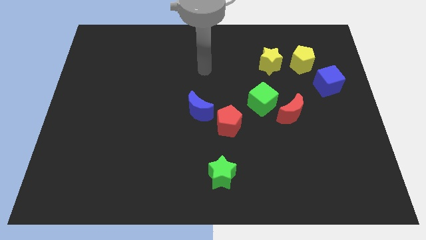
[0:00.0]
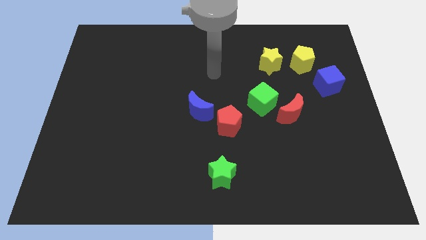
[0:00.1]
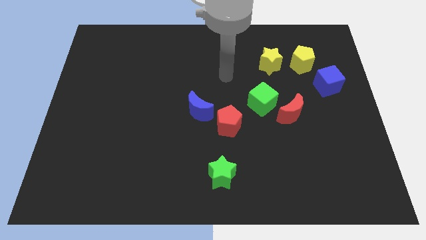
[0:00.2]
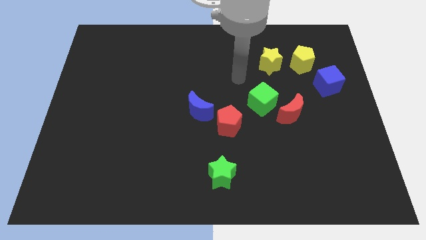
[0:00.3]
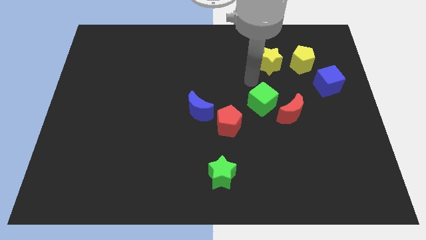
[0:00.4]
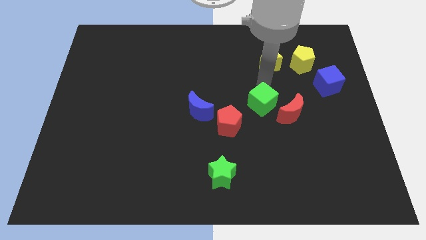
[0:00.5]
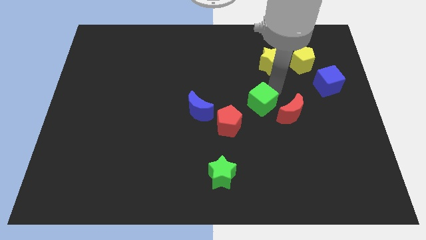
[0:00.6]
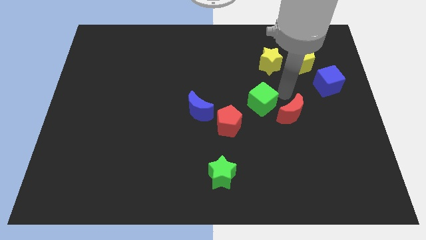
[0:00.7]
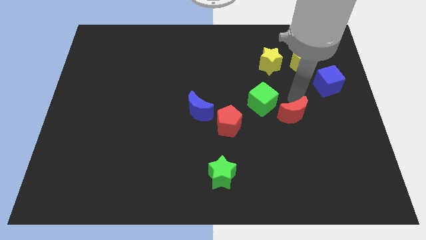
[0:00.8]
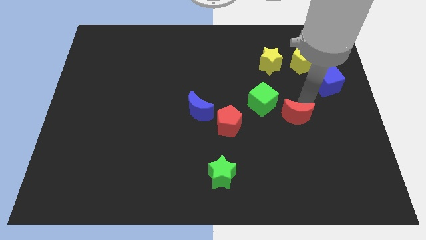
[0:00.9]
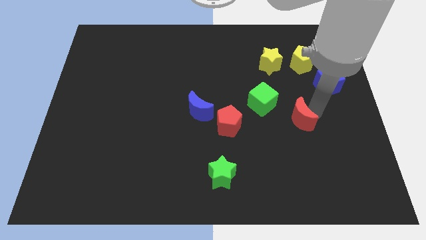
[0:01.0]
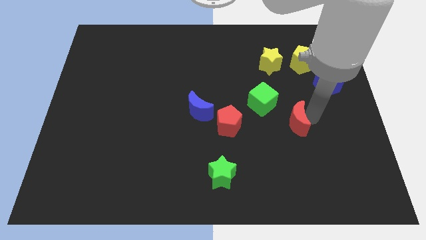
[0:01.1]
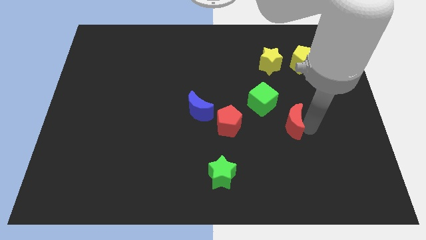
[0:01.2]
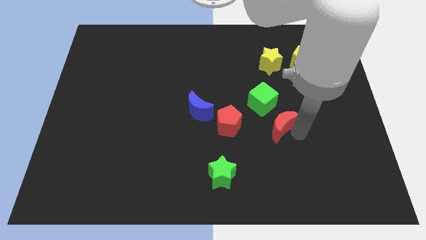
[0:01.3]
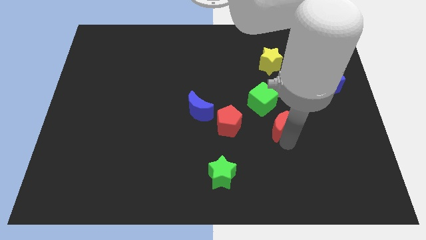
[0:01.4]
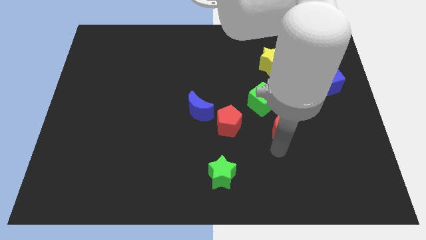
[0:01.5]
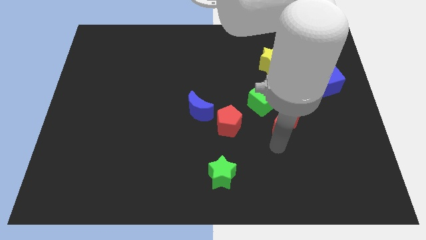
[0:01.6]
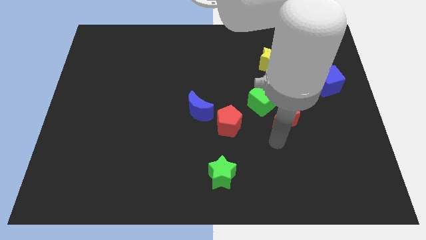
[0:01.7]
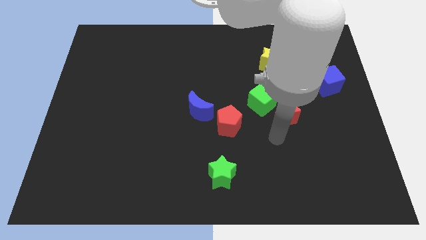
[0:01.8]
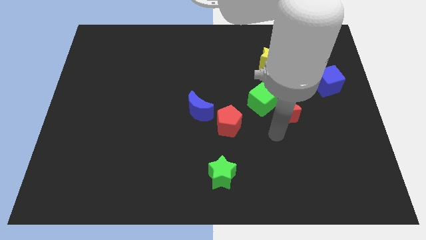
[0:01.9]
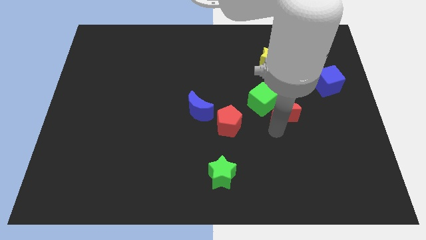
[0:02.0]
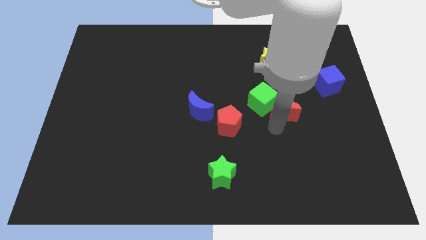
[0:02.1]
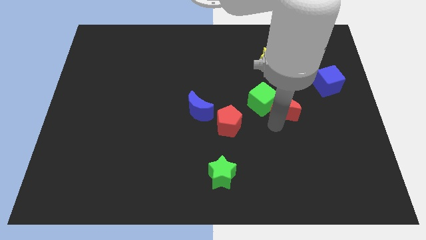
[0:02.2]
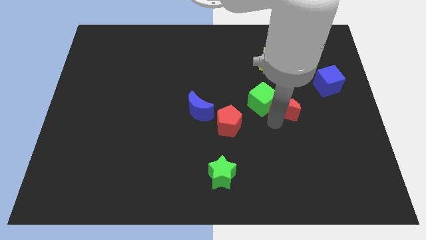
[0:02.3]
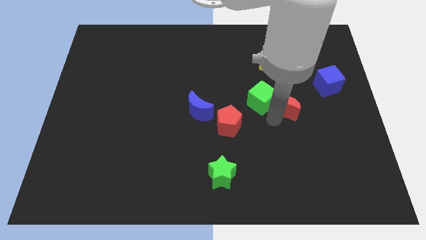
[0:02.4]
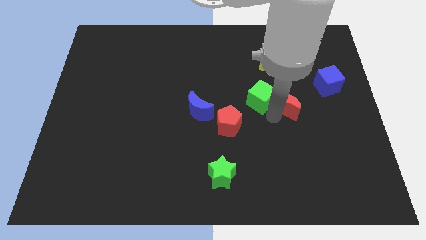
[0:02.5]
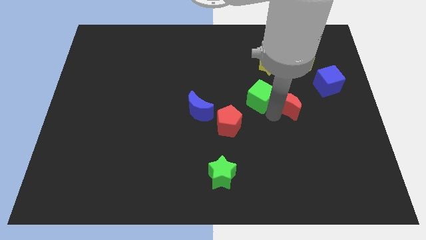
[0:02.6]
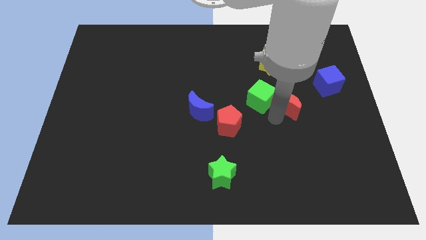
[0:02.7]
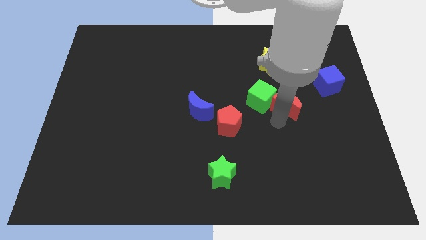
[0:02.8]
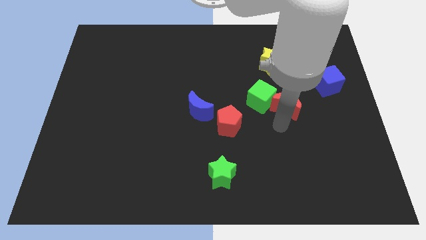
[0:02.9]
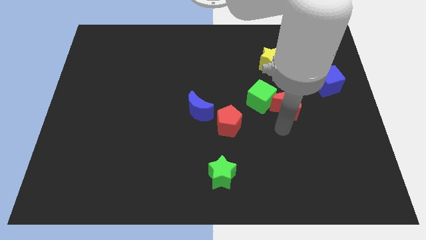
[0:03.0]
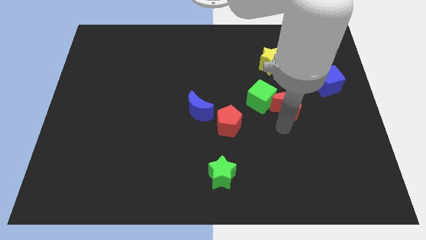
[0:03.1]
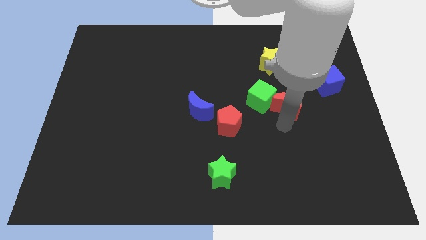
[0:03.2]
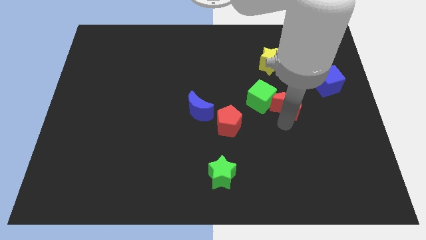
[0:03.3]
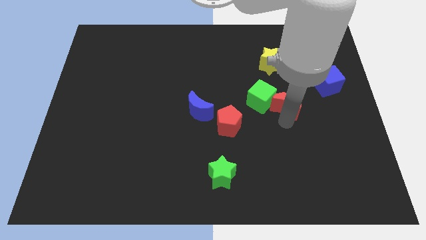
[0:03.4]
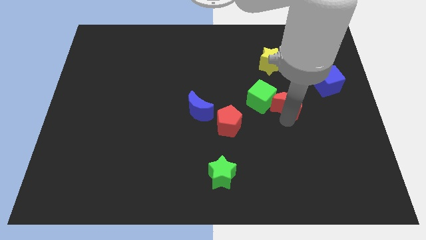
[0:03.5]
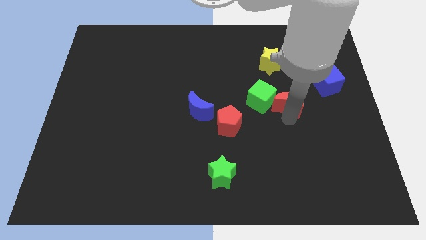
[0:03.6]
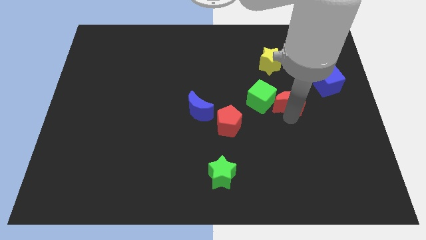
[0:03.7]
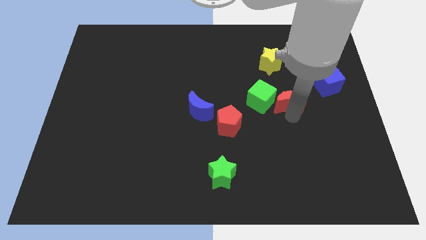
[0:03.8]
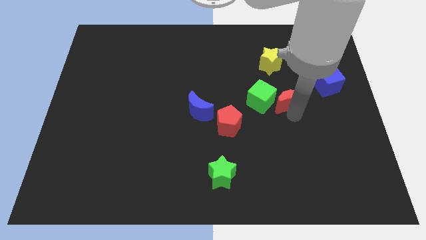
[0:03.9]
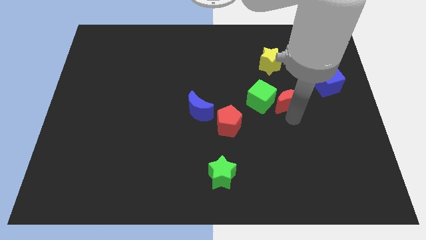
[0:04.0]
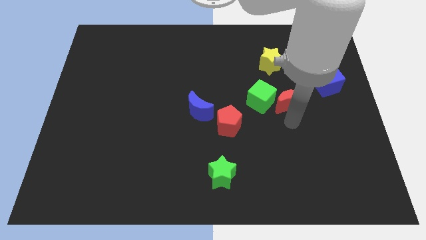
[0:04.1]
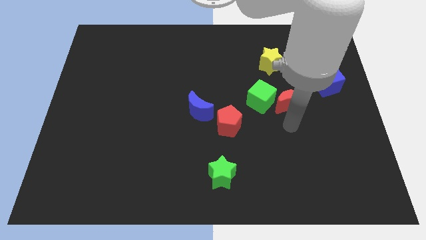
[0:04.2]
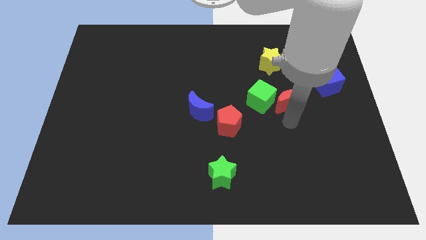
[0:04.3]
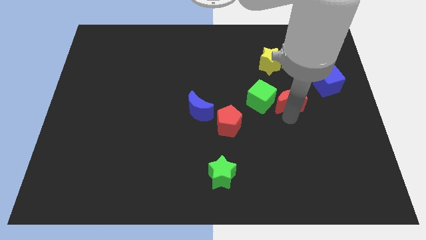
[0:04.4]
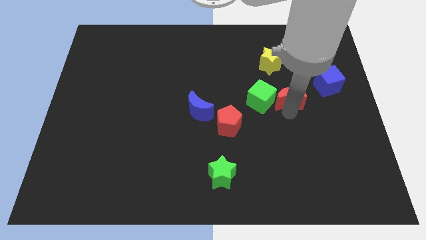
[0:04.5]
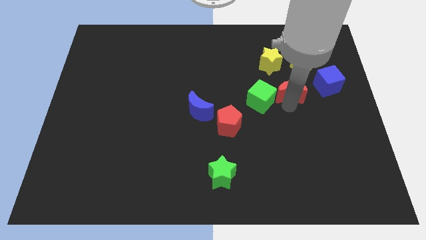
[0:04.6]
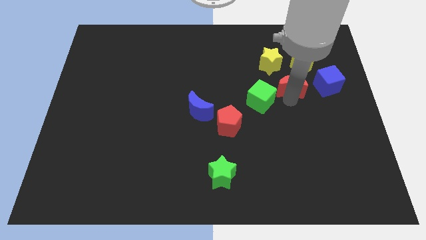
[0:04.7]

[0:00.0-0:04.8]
slightly move the red moon up

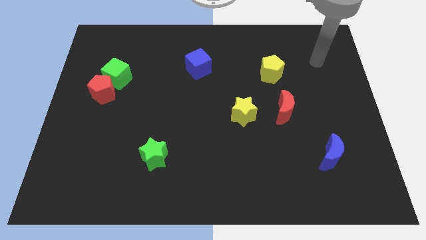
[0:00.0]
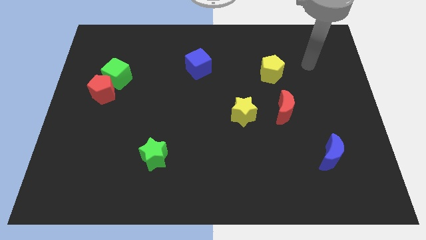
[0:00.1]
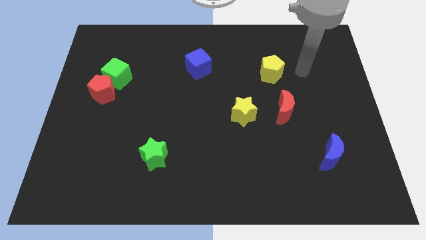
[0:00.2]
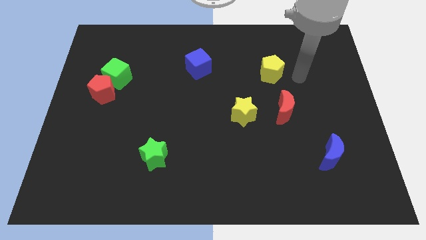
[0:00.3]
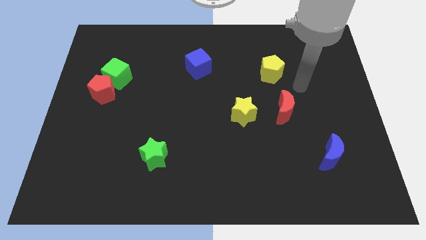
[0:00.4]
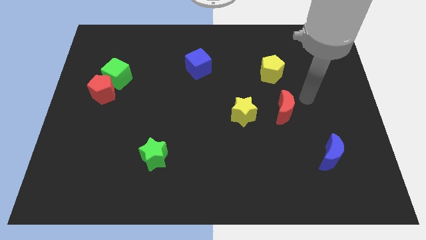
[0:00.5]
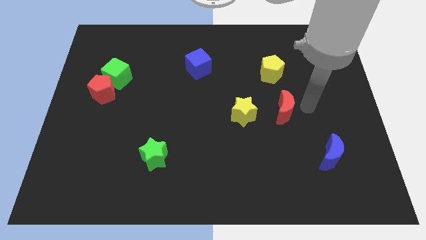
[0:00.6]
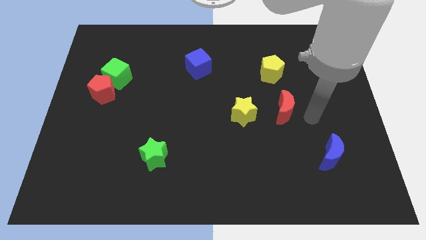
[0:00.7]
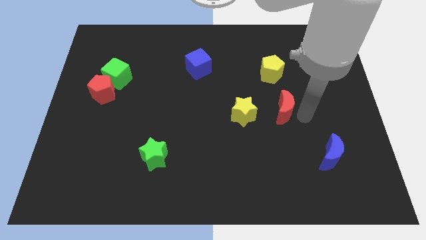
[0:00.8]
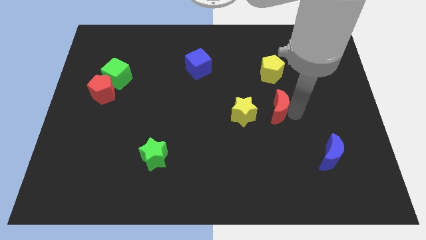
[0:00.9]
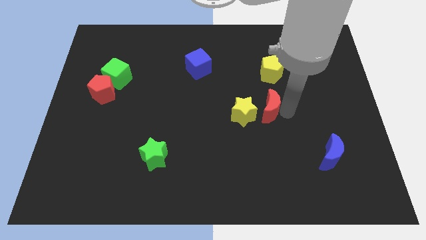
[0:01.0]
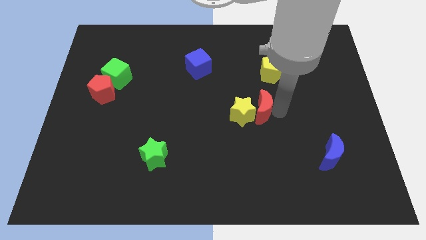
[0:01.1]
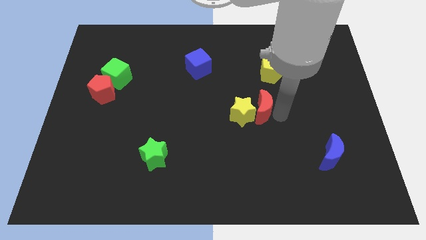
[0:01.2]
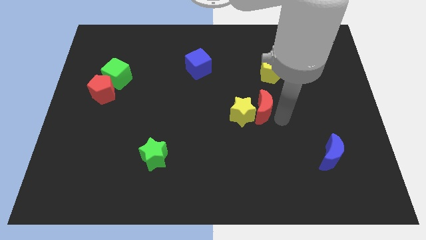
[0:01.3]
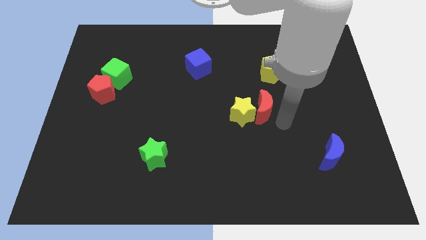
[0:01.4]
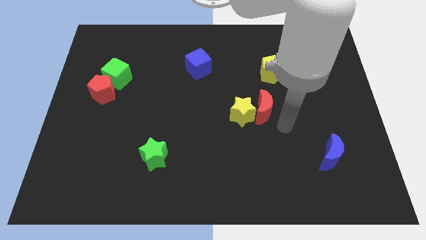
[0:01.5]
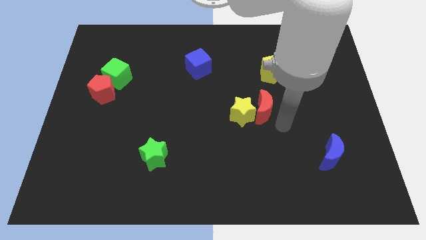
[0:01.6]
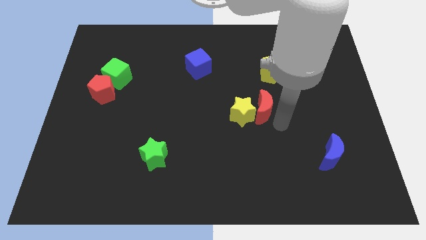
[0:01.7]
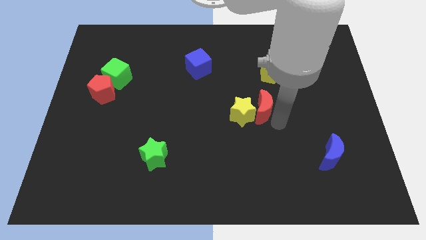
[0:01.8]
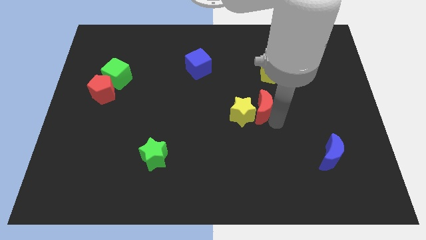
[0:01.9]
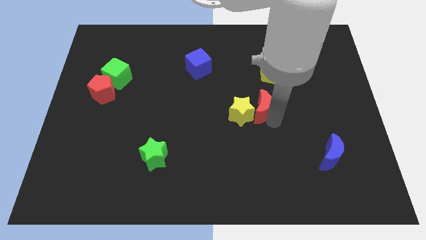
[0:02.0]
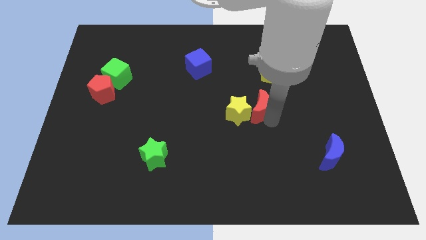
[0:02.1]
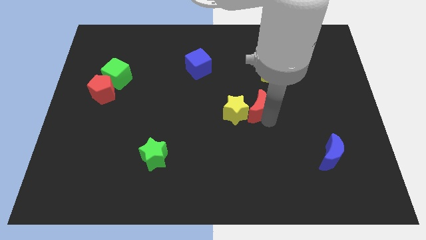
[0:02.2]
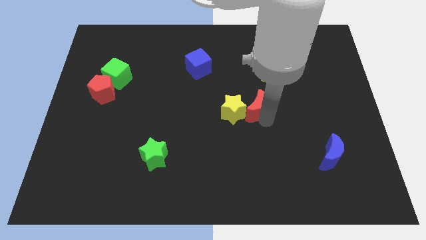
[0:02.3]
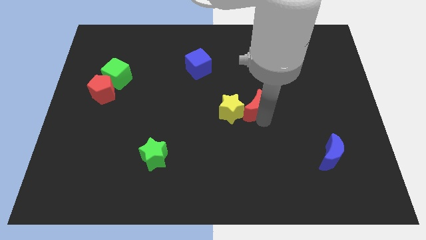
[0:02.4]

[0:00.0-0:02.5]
slide the red moon to the left a little

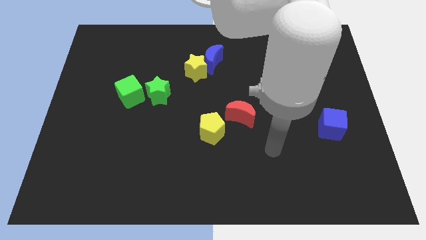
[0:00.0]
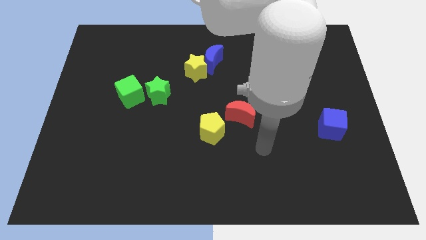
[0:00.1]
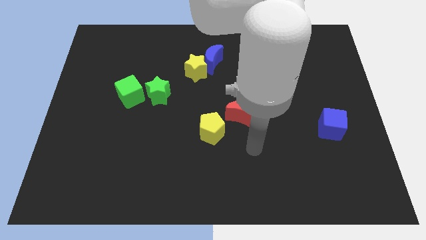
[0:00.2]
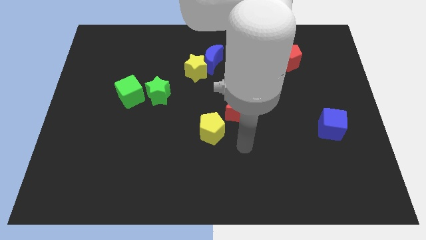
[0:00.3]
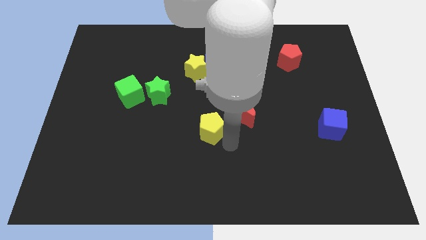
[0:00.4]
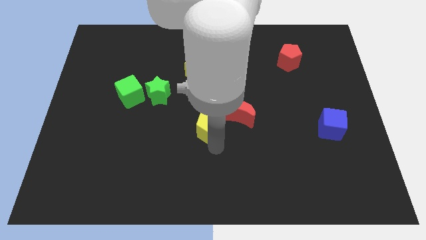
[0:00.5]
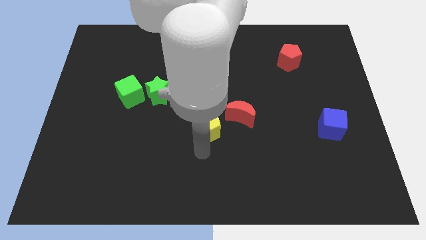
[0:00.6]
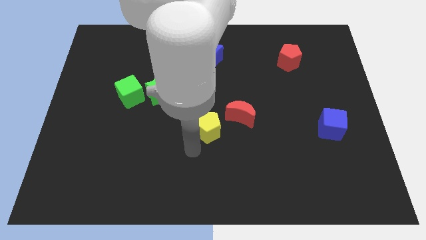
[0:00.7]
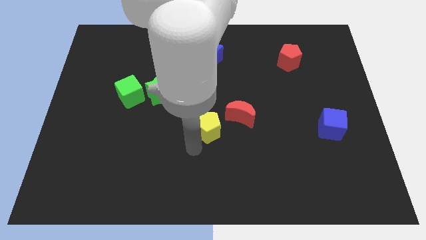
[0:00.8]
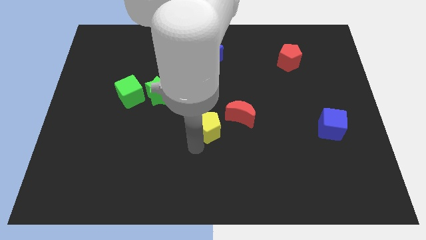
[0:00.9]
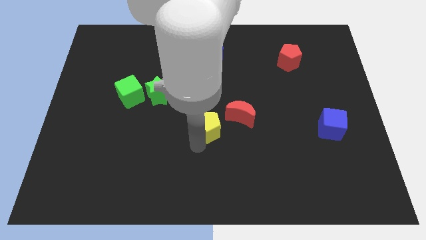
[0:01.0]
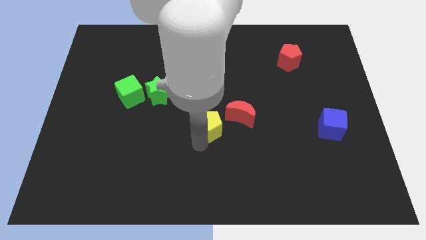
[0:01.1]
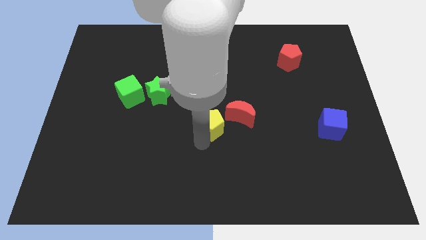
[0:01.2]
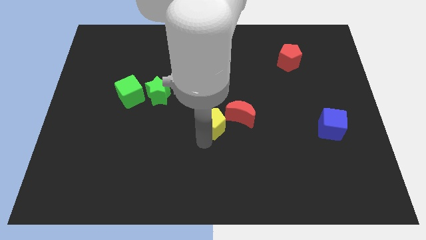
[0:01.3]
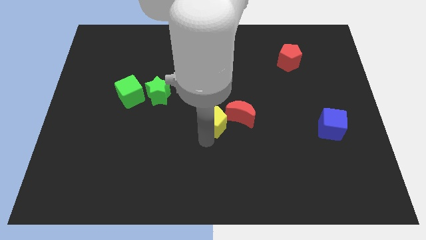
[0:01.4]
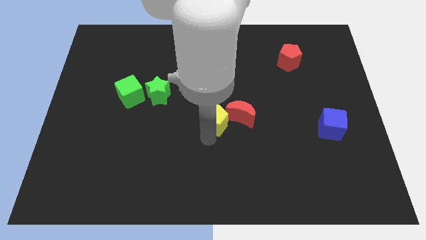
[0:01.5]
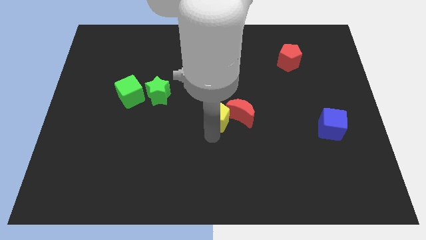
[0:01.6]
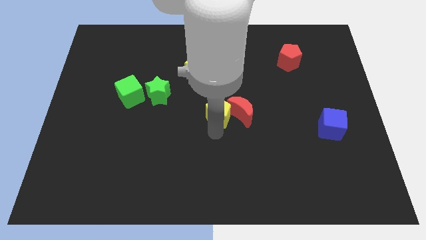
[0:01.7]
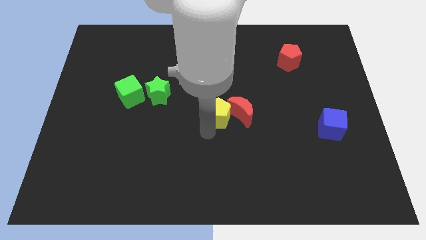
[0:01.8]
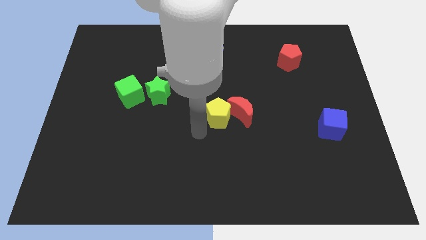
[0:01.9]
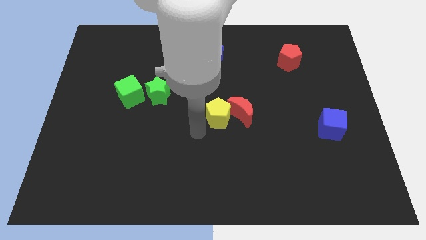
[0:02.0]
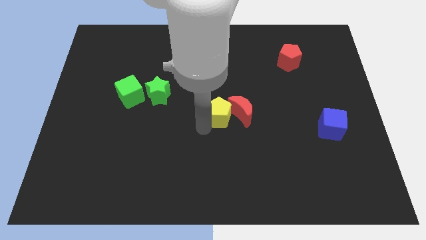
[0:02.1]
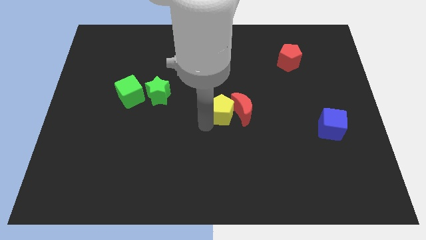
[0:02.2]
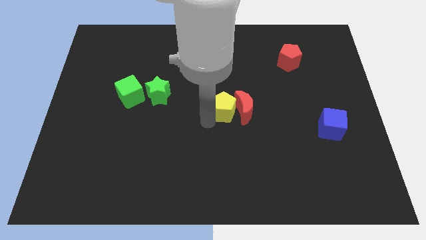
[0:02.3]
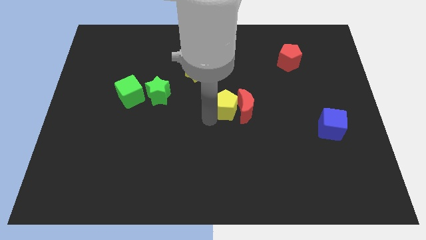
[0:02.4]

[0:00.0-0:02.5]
slide the yellow pentagon a bit diagonally up and to the right
